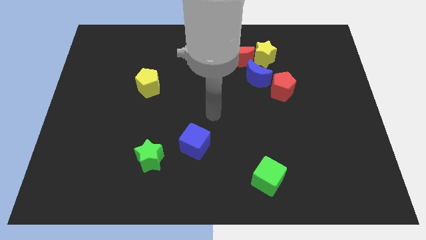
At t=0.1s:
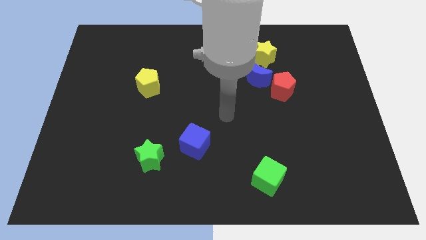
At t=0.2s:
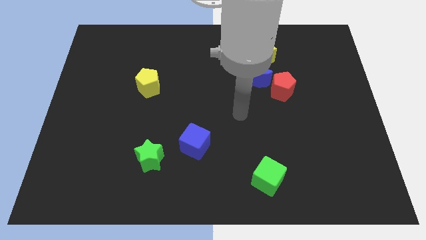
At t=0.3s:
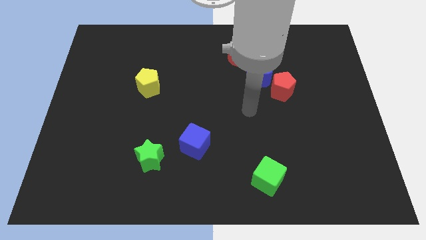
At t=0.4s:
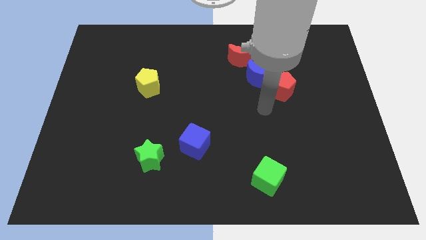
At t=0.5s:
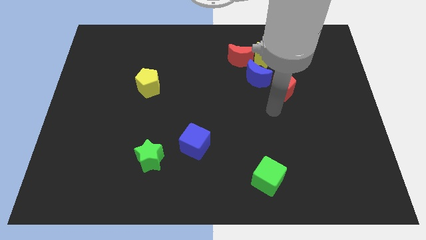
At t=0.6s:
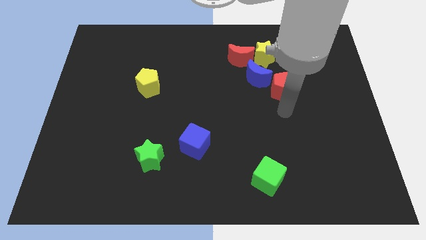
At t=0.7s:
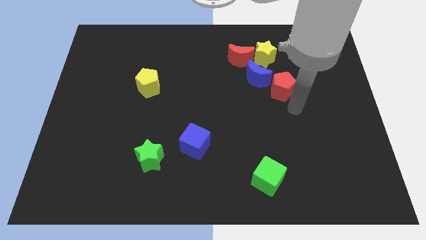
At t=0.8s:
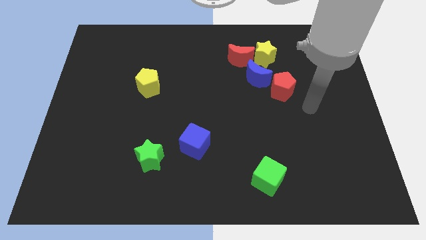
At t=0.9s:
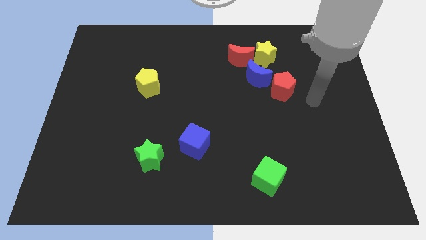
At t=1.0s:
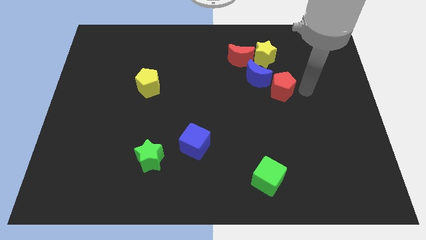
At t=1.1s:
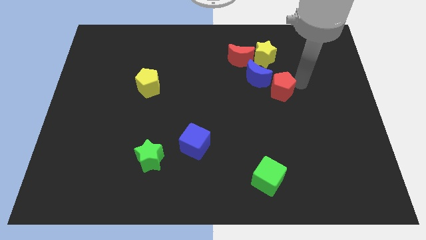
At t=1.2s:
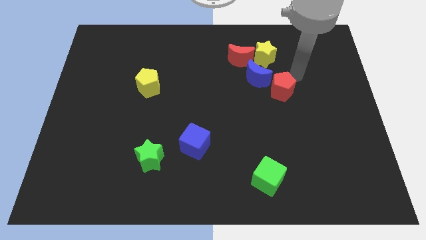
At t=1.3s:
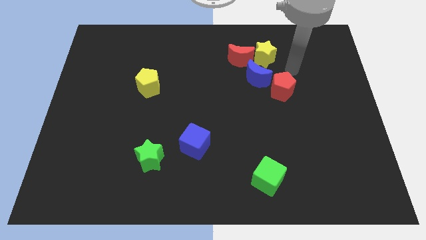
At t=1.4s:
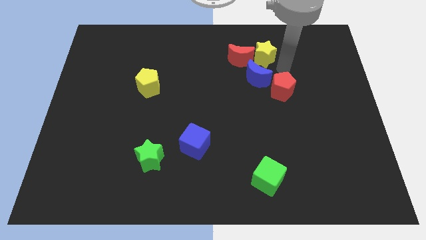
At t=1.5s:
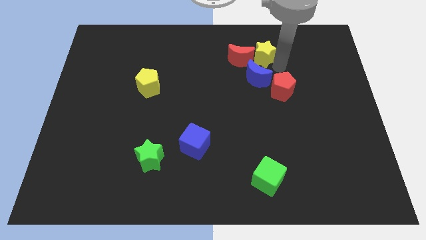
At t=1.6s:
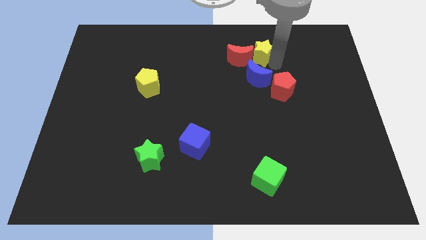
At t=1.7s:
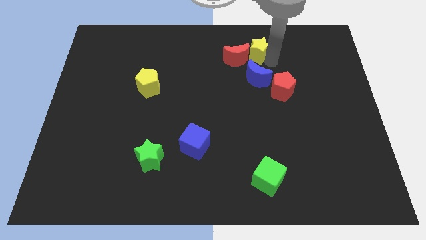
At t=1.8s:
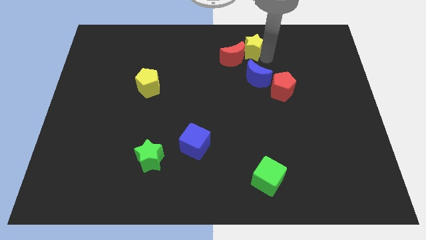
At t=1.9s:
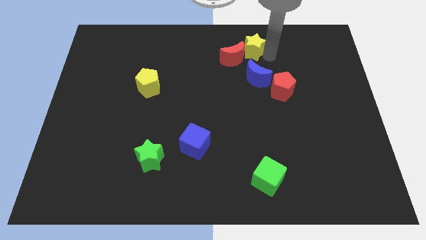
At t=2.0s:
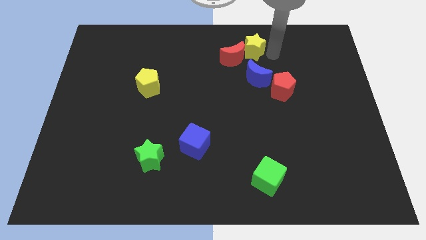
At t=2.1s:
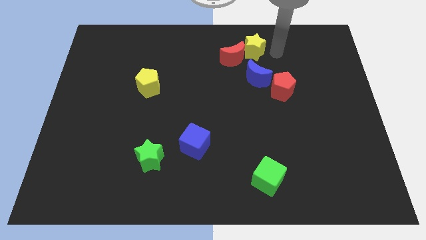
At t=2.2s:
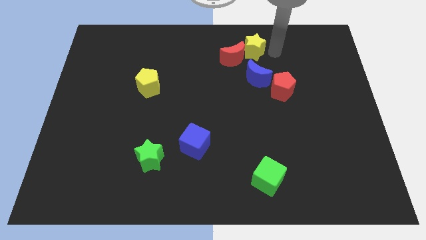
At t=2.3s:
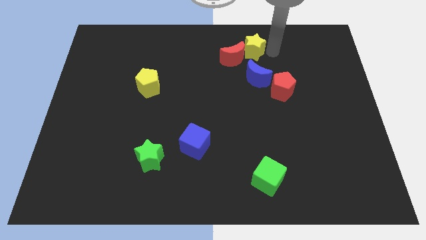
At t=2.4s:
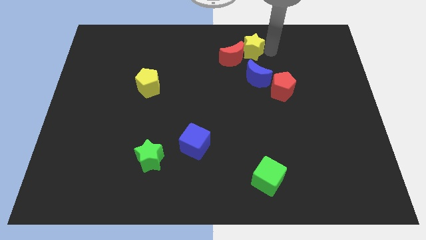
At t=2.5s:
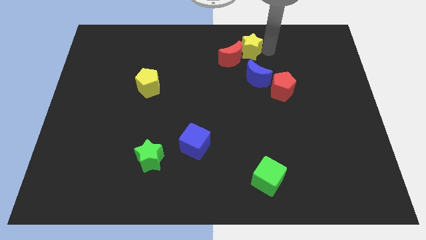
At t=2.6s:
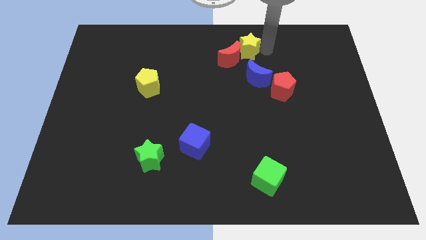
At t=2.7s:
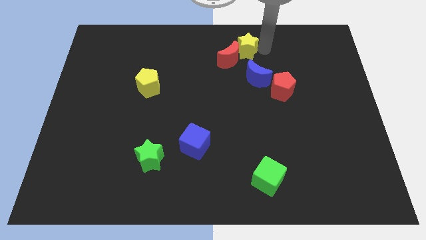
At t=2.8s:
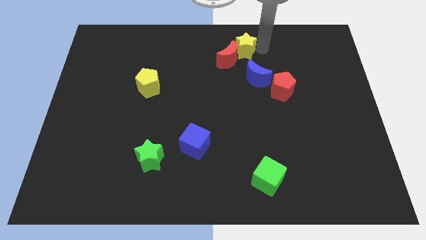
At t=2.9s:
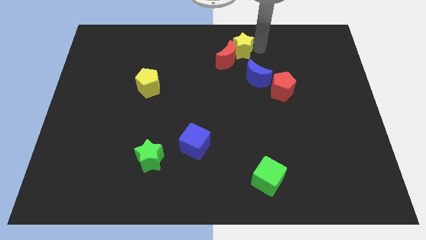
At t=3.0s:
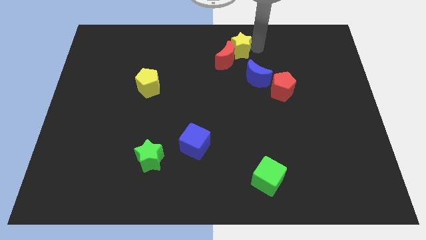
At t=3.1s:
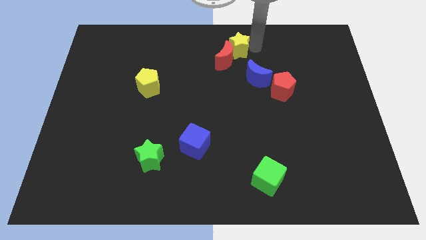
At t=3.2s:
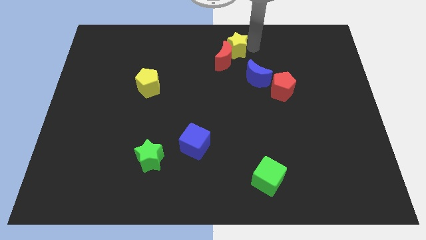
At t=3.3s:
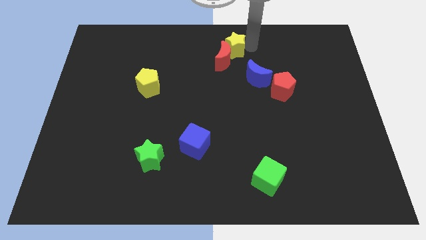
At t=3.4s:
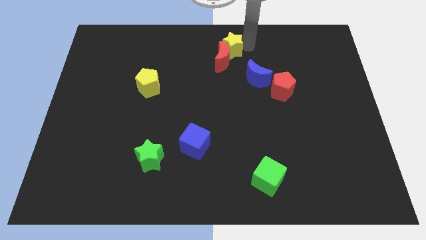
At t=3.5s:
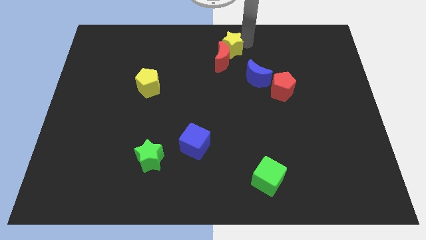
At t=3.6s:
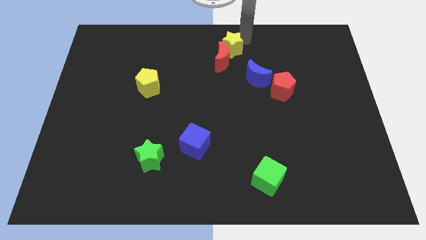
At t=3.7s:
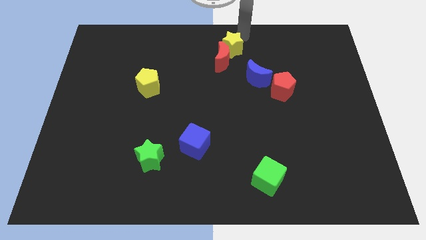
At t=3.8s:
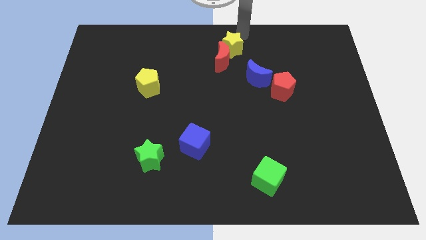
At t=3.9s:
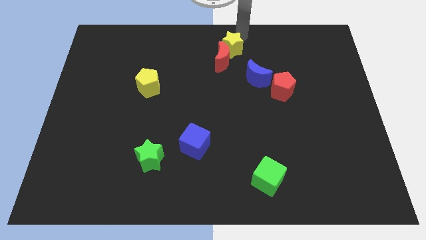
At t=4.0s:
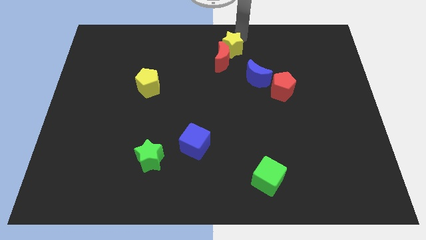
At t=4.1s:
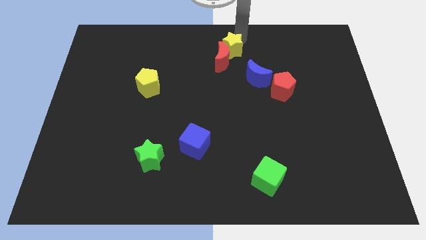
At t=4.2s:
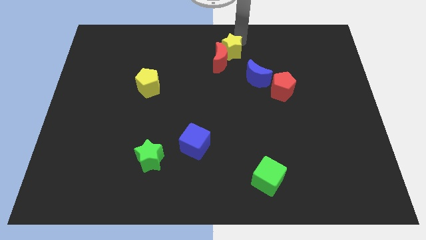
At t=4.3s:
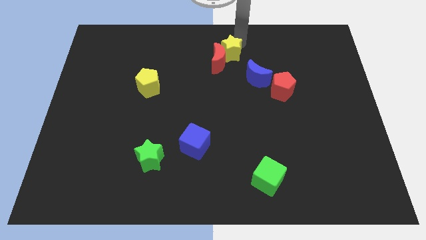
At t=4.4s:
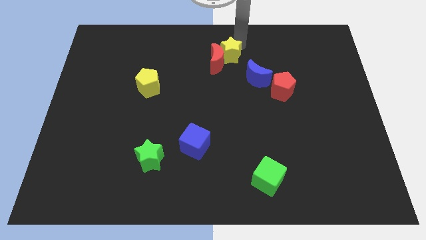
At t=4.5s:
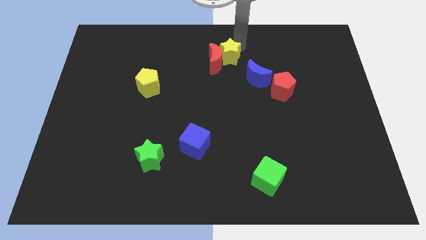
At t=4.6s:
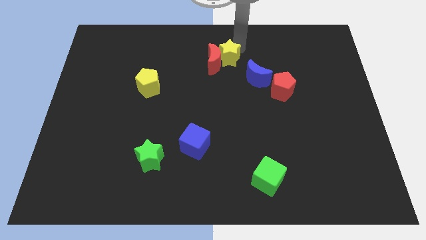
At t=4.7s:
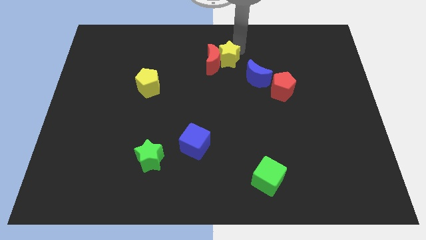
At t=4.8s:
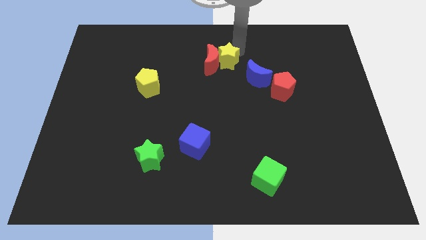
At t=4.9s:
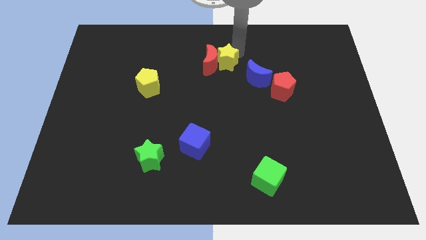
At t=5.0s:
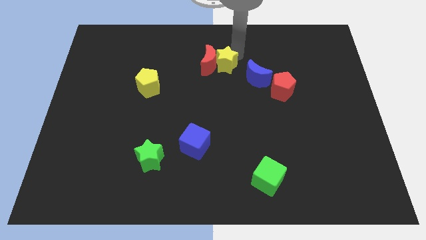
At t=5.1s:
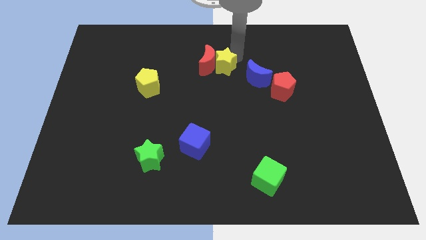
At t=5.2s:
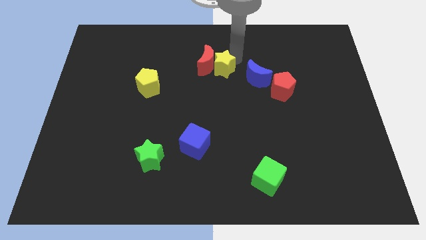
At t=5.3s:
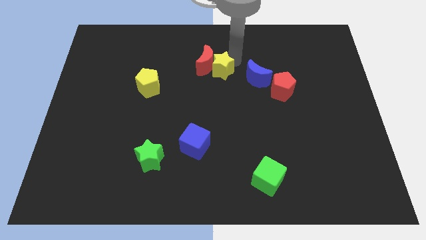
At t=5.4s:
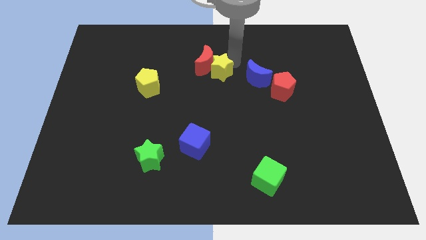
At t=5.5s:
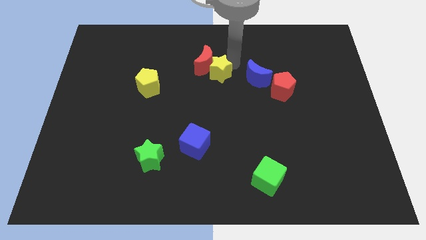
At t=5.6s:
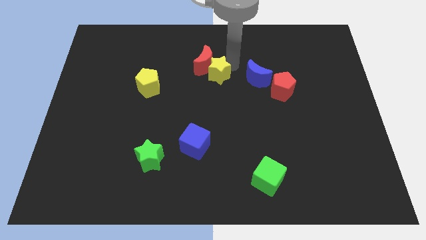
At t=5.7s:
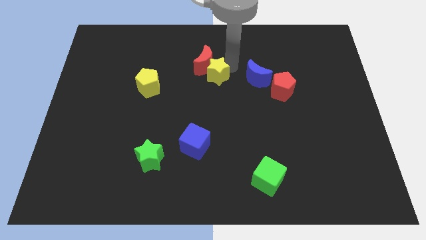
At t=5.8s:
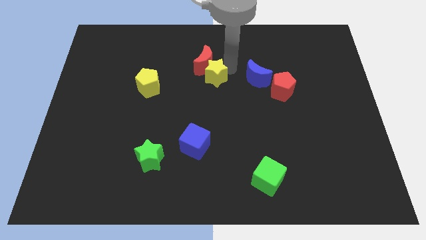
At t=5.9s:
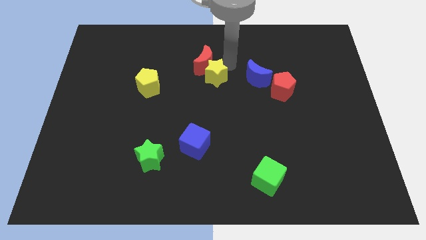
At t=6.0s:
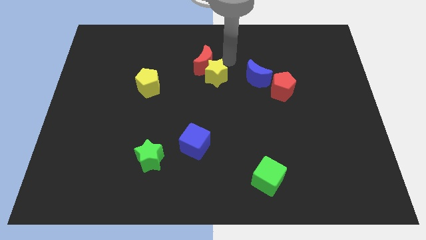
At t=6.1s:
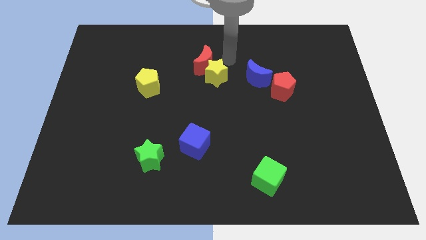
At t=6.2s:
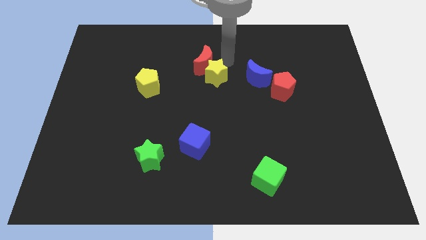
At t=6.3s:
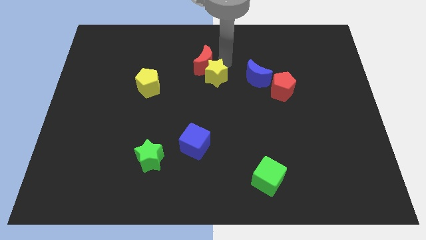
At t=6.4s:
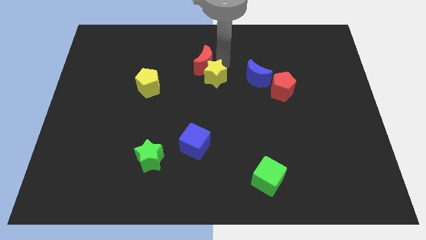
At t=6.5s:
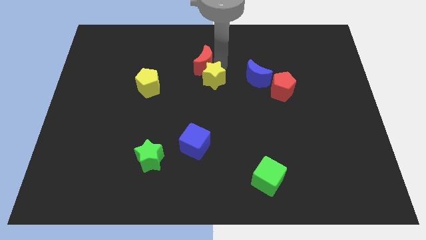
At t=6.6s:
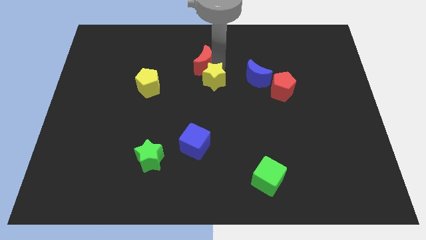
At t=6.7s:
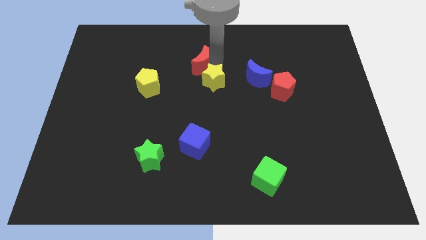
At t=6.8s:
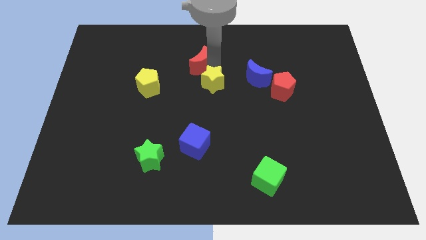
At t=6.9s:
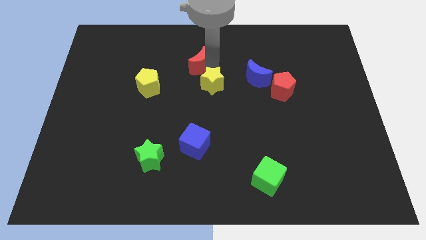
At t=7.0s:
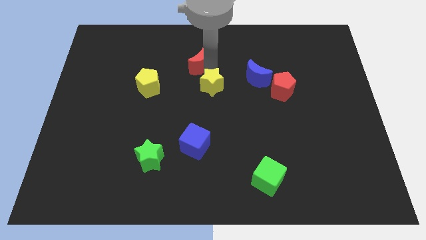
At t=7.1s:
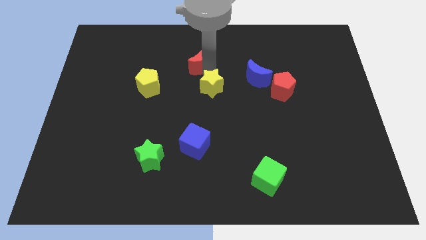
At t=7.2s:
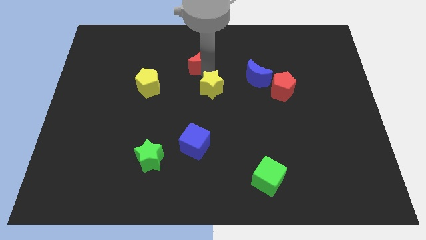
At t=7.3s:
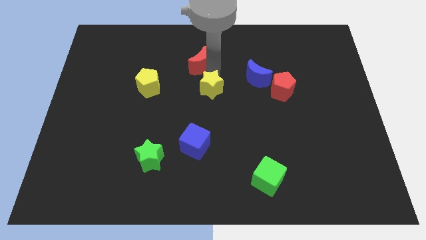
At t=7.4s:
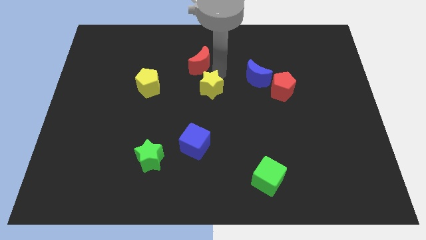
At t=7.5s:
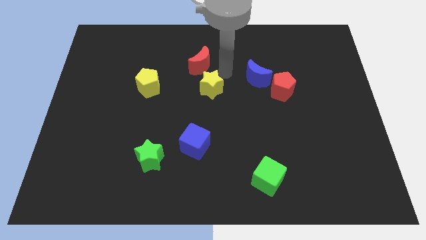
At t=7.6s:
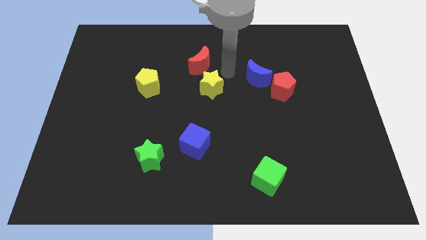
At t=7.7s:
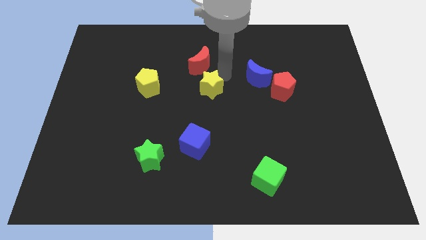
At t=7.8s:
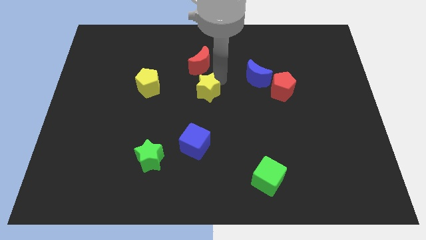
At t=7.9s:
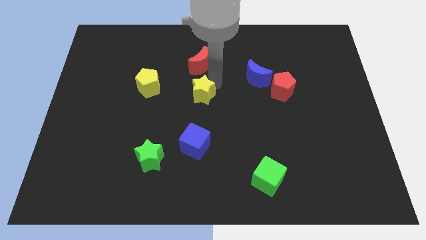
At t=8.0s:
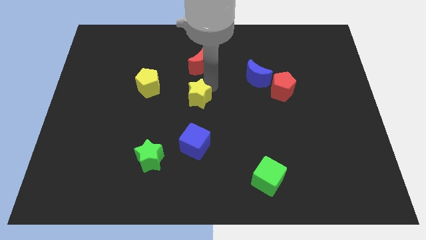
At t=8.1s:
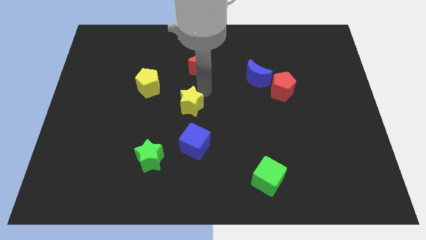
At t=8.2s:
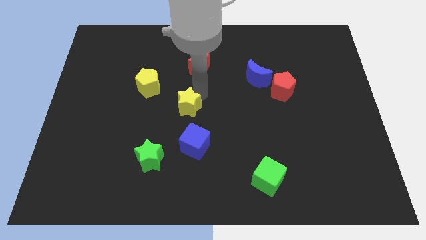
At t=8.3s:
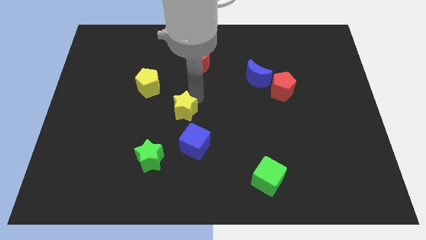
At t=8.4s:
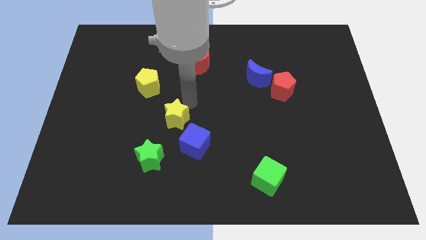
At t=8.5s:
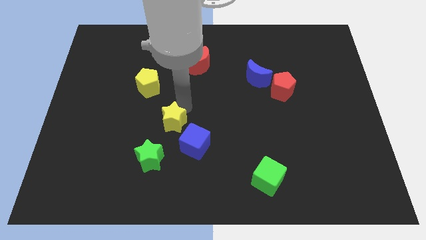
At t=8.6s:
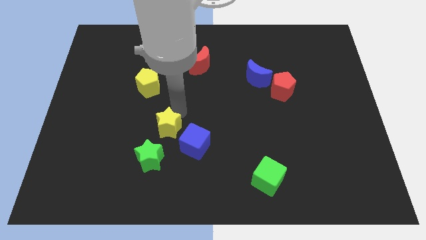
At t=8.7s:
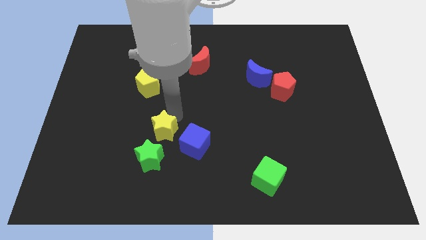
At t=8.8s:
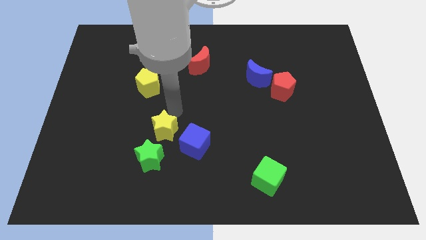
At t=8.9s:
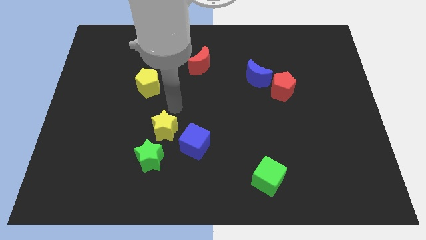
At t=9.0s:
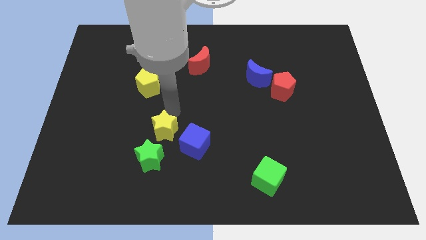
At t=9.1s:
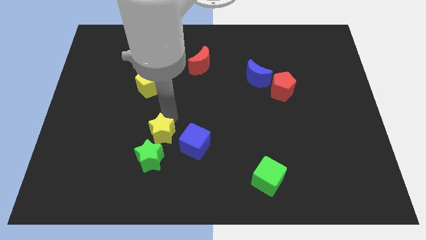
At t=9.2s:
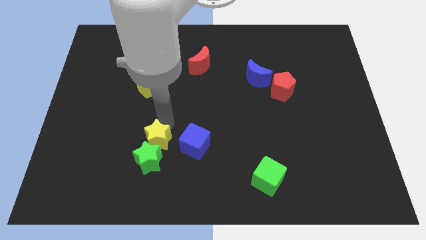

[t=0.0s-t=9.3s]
push the yellow star next to the green star
